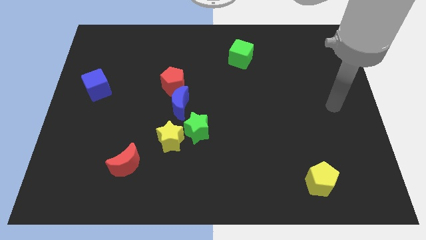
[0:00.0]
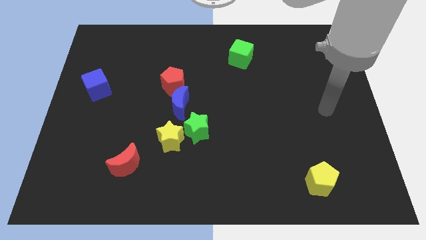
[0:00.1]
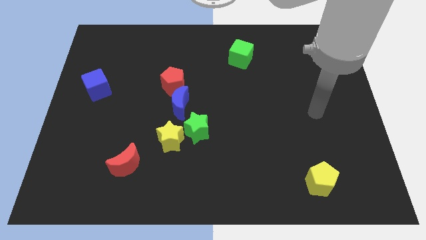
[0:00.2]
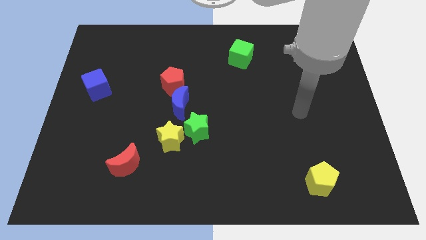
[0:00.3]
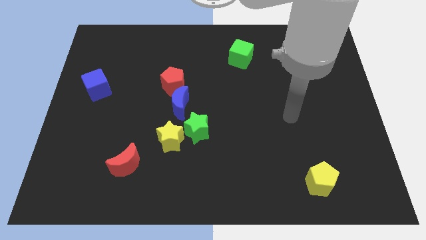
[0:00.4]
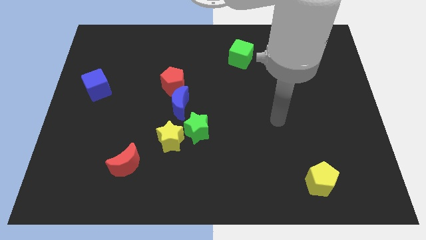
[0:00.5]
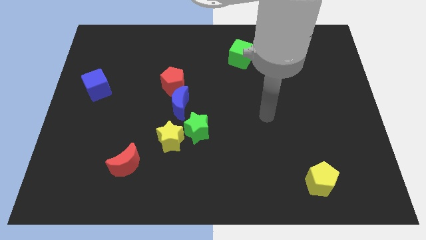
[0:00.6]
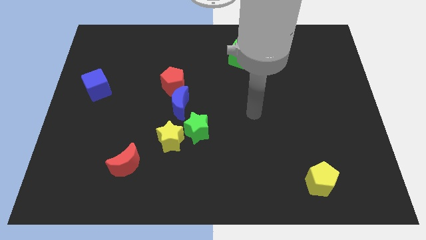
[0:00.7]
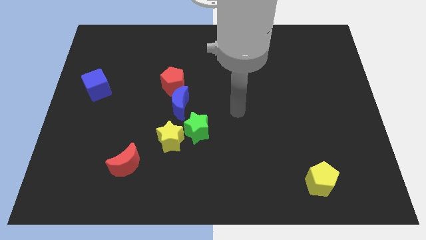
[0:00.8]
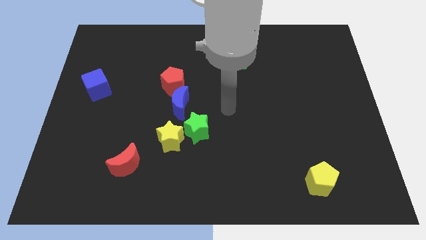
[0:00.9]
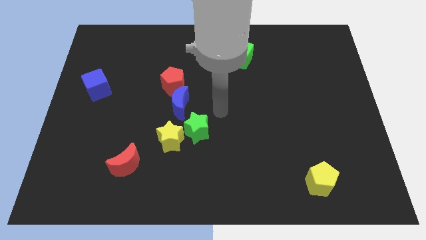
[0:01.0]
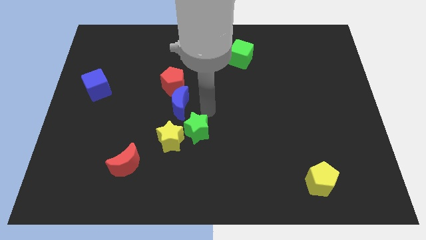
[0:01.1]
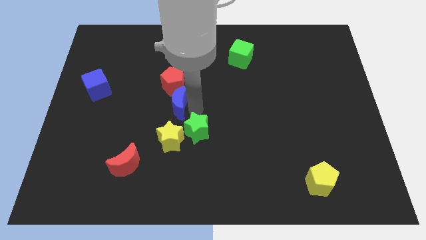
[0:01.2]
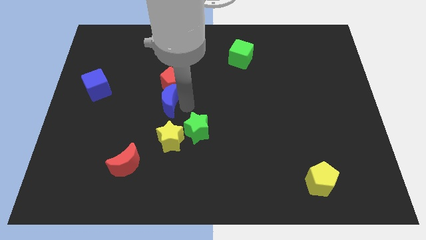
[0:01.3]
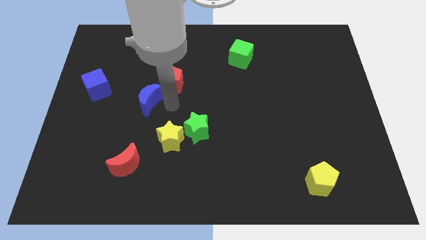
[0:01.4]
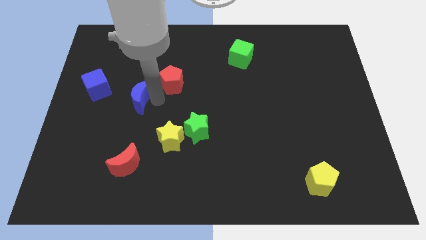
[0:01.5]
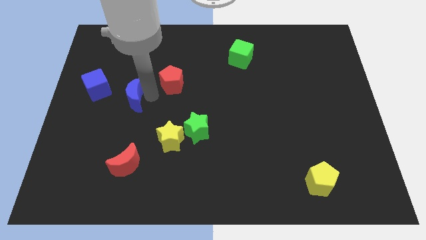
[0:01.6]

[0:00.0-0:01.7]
pull the red pentagon apart from the blue moon

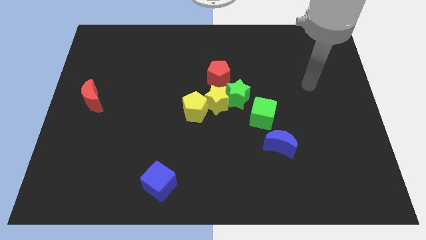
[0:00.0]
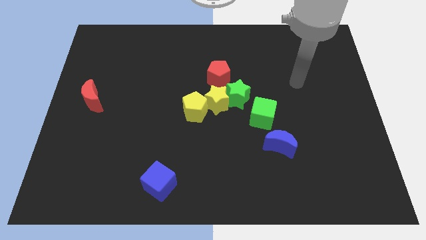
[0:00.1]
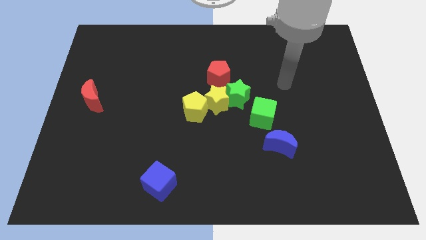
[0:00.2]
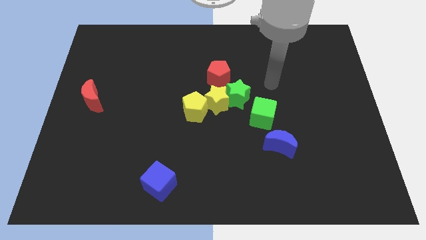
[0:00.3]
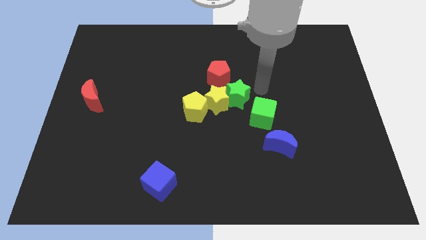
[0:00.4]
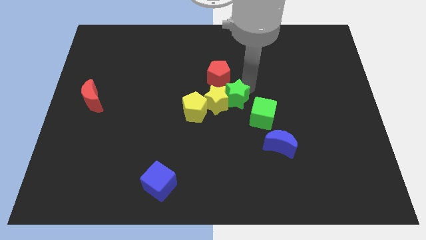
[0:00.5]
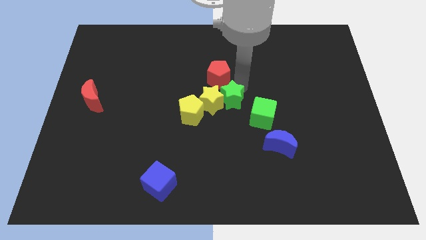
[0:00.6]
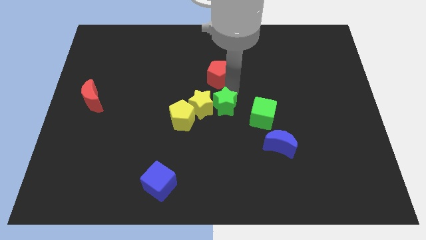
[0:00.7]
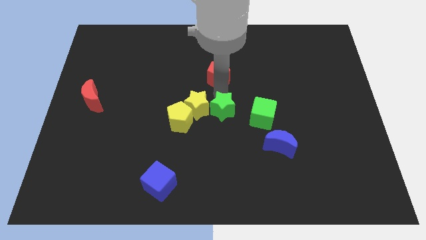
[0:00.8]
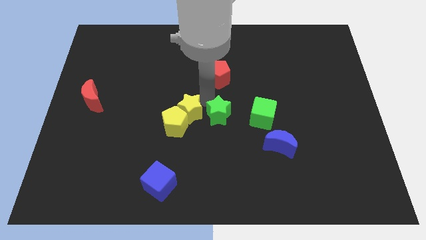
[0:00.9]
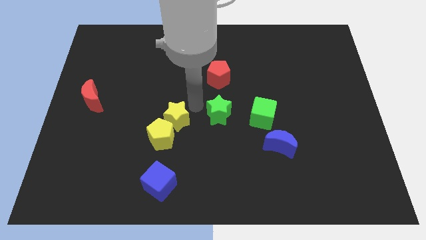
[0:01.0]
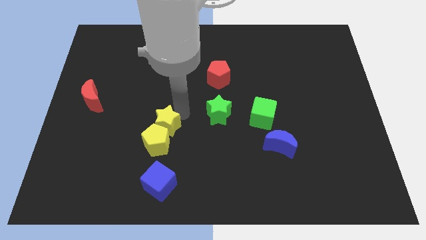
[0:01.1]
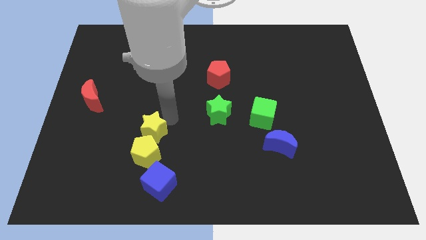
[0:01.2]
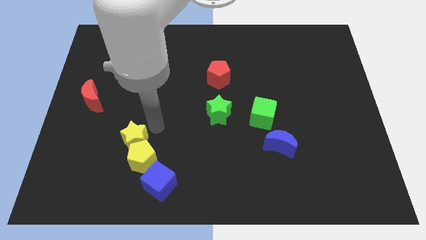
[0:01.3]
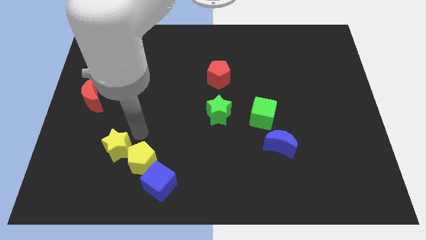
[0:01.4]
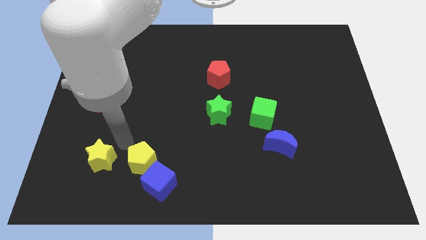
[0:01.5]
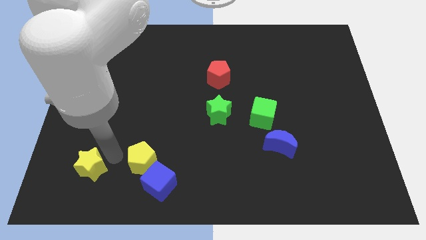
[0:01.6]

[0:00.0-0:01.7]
move the yellow pentagon away from the yellow star

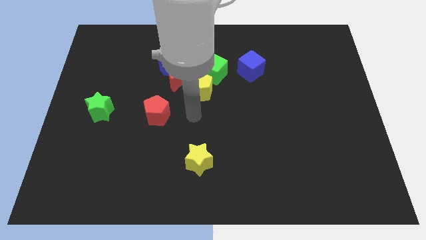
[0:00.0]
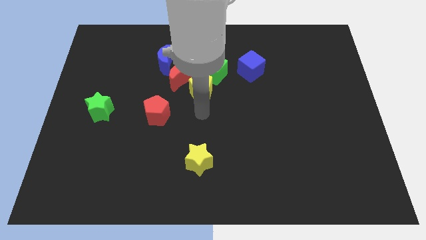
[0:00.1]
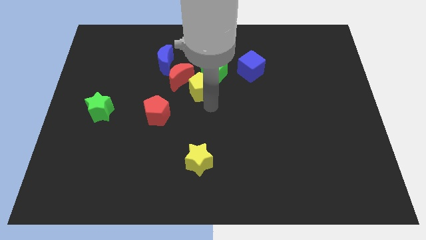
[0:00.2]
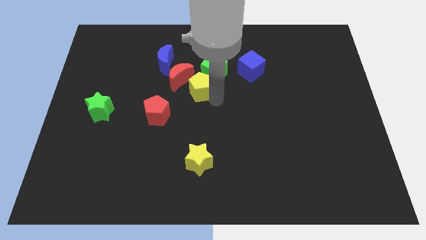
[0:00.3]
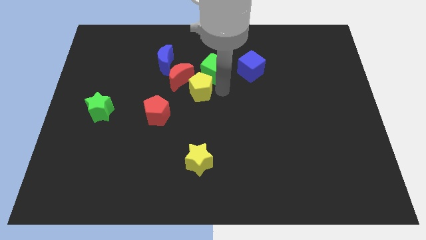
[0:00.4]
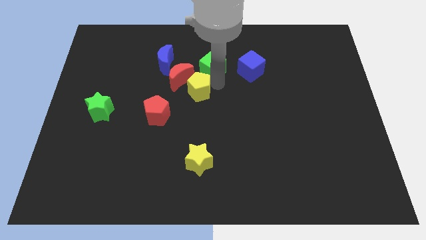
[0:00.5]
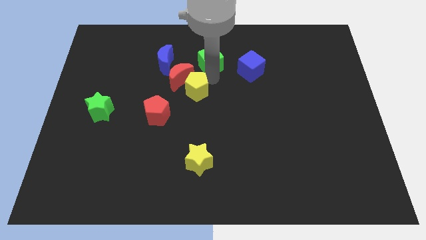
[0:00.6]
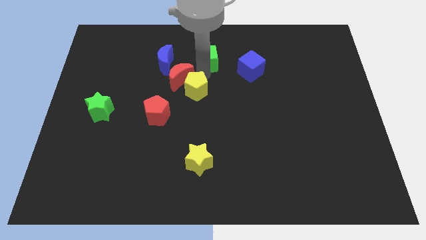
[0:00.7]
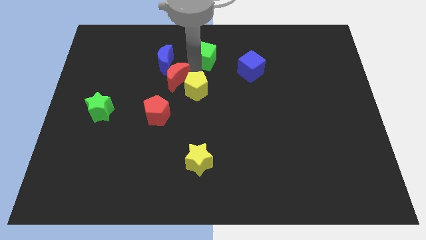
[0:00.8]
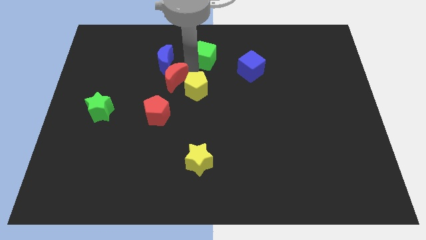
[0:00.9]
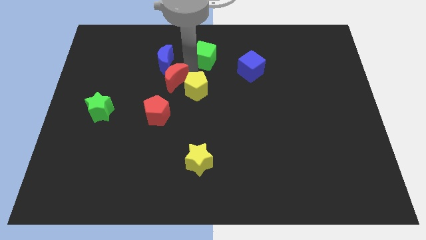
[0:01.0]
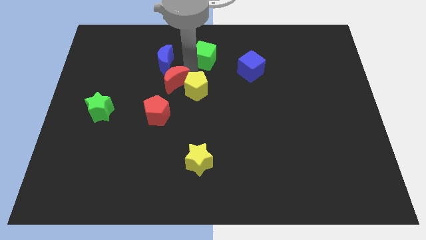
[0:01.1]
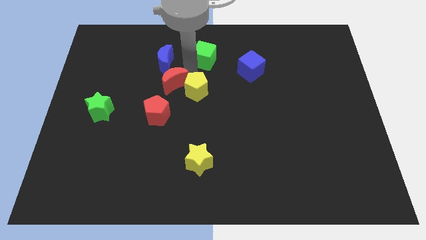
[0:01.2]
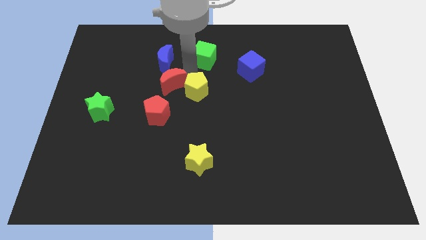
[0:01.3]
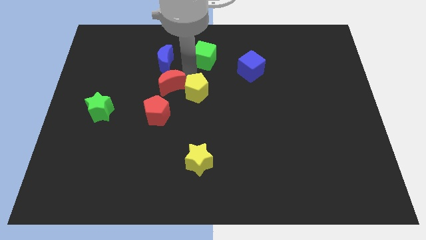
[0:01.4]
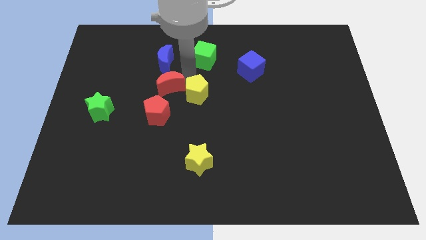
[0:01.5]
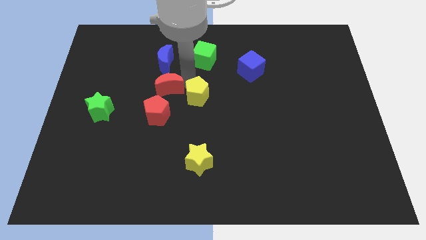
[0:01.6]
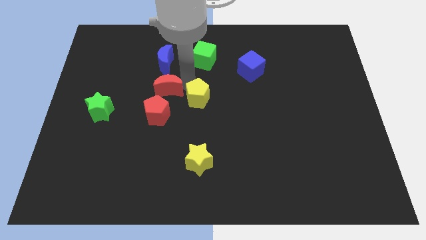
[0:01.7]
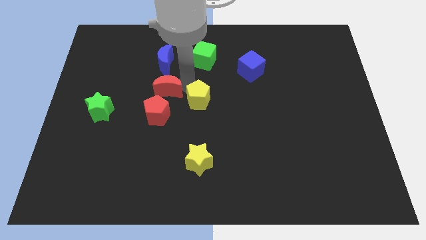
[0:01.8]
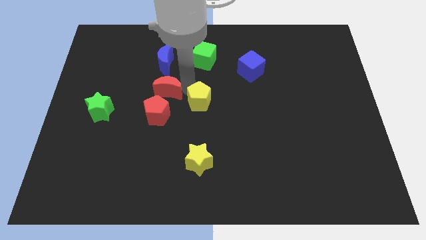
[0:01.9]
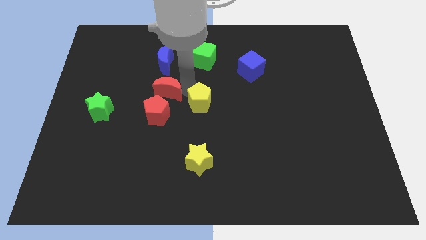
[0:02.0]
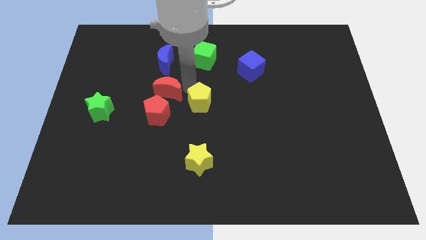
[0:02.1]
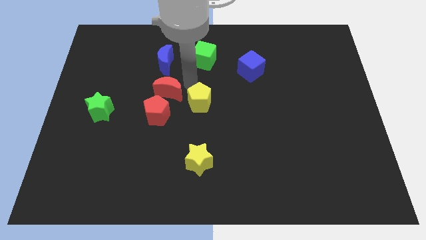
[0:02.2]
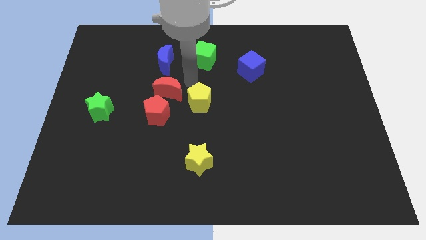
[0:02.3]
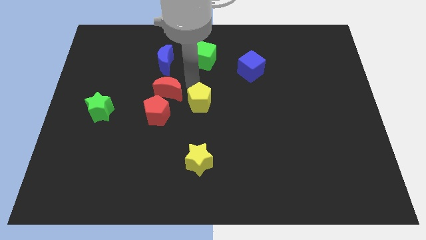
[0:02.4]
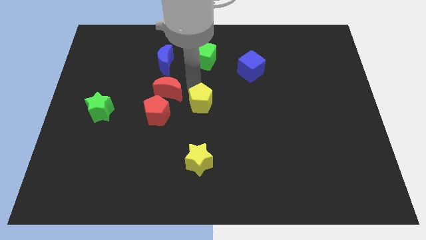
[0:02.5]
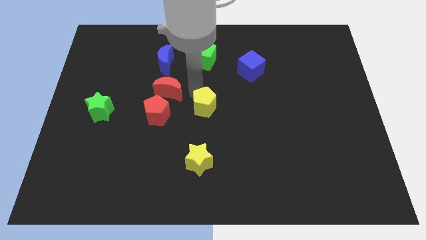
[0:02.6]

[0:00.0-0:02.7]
pull the yellow pentagon apart from the red moon and green cube

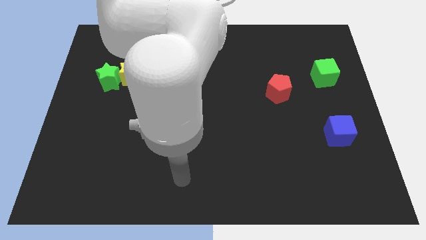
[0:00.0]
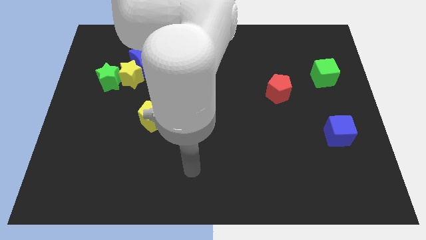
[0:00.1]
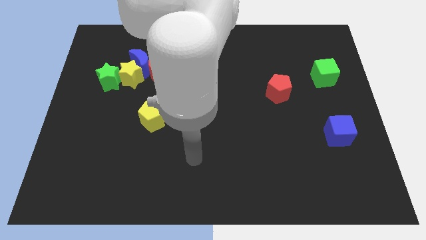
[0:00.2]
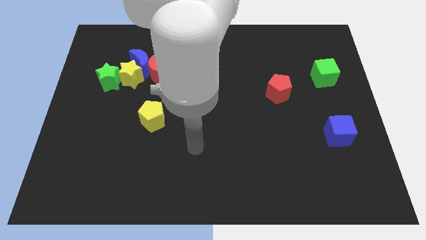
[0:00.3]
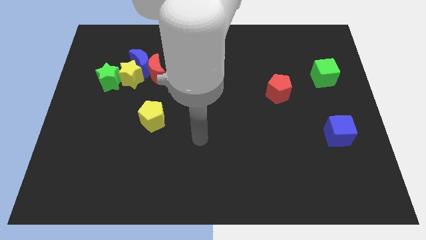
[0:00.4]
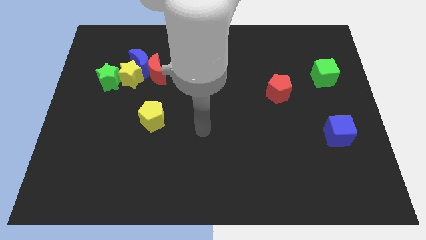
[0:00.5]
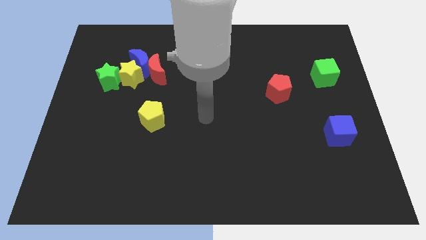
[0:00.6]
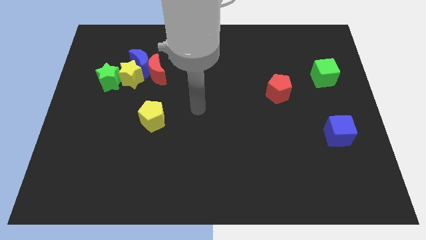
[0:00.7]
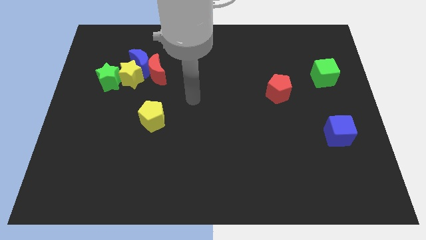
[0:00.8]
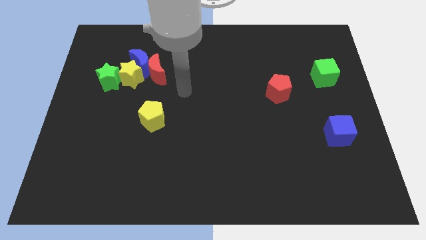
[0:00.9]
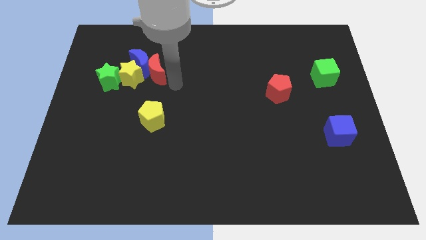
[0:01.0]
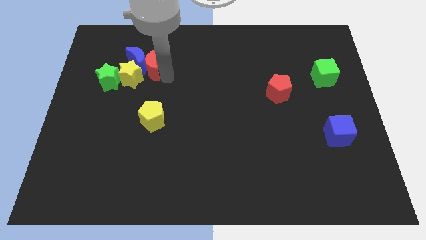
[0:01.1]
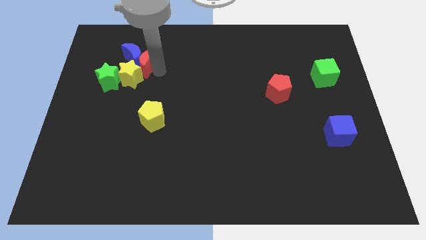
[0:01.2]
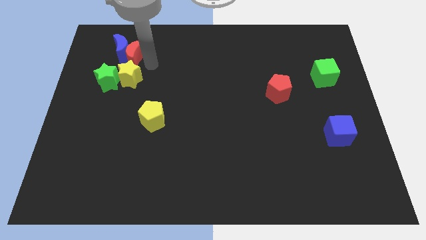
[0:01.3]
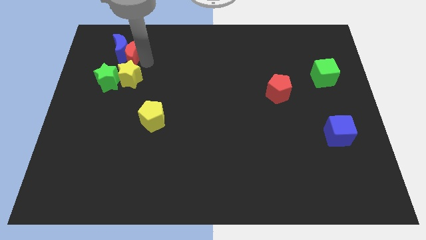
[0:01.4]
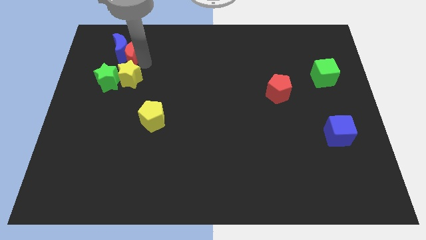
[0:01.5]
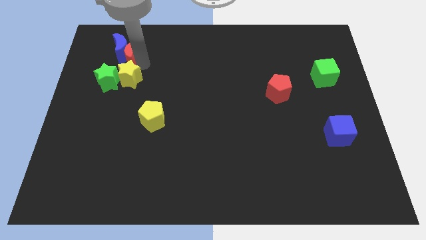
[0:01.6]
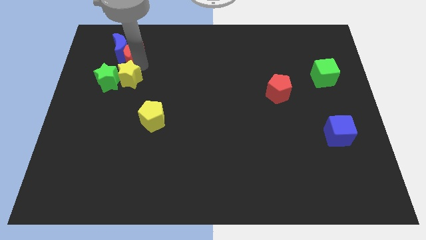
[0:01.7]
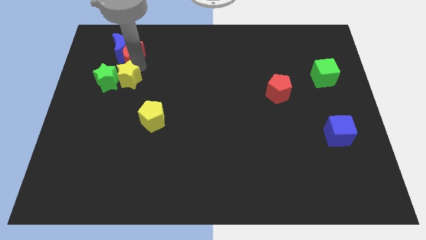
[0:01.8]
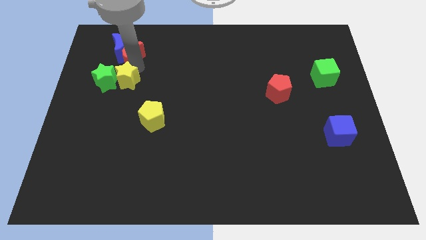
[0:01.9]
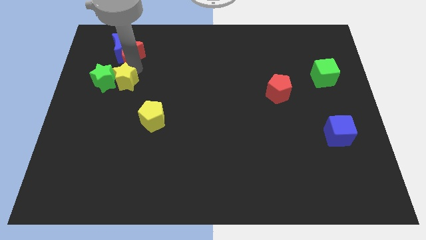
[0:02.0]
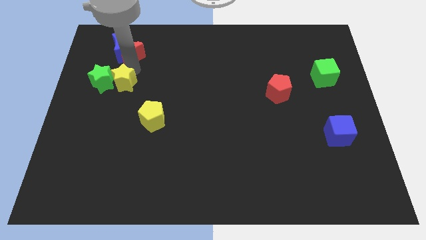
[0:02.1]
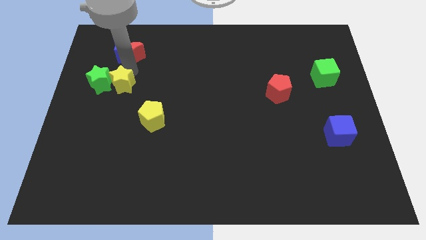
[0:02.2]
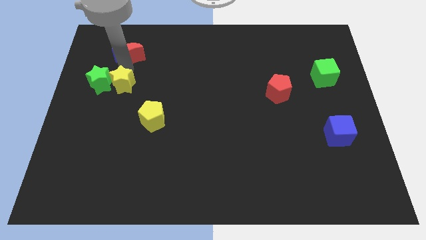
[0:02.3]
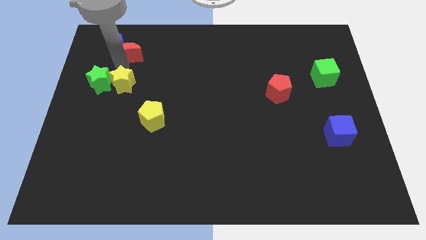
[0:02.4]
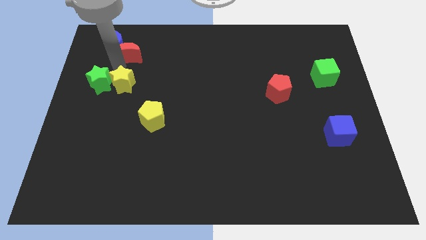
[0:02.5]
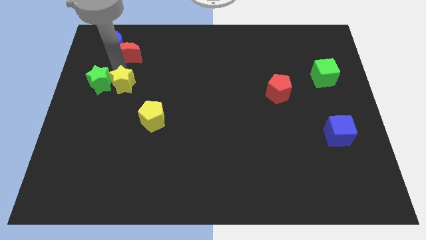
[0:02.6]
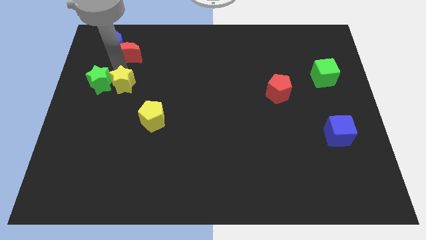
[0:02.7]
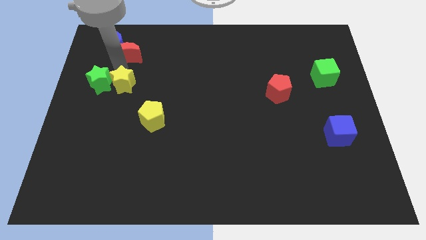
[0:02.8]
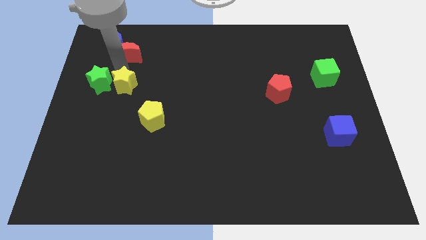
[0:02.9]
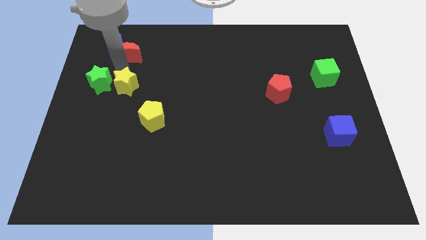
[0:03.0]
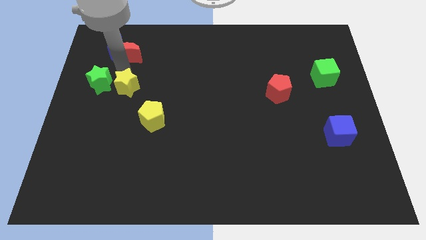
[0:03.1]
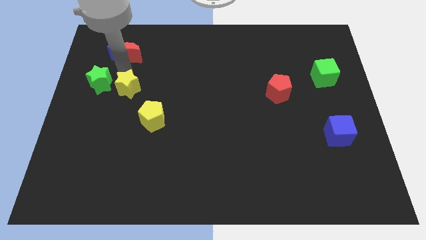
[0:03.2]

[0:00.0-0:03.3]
pull the yellow star apart from the group of blocks
